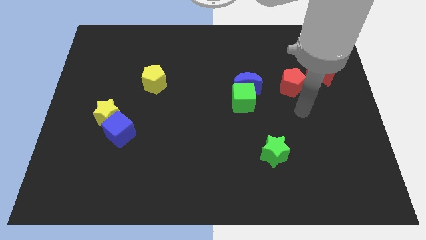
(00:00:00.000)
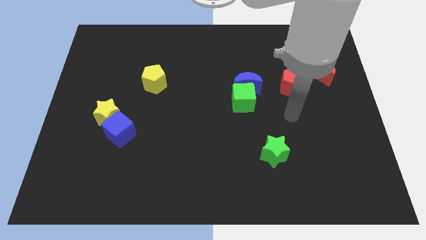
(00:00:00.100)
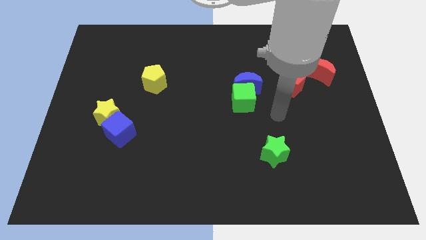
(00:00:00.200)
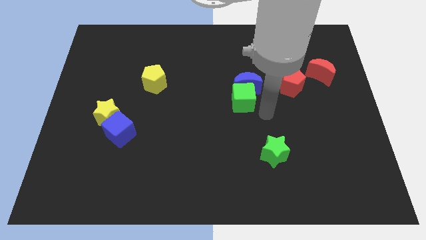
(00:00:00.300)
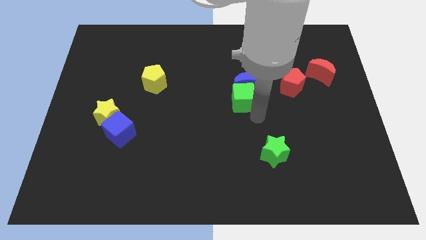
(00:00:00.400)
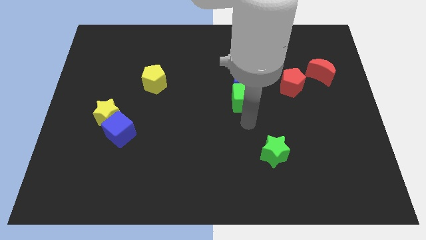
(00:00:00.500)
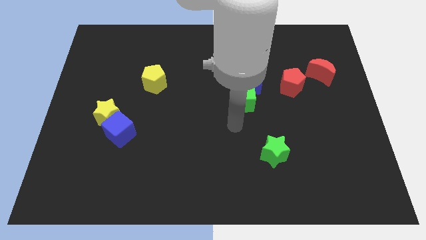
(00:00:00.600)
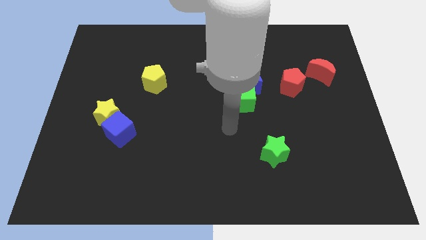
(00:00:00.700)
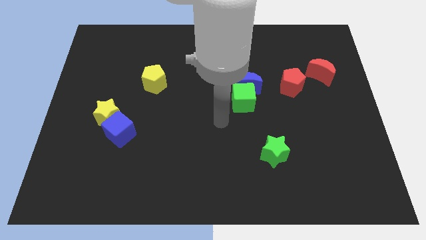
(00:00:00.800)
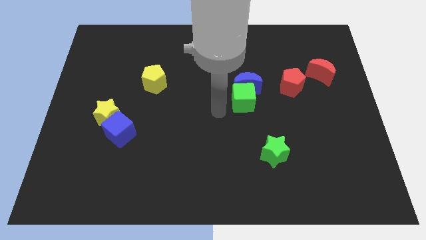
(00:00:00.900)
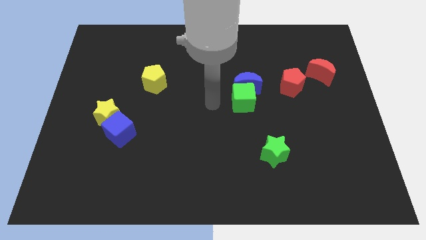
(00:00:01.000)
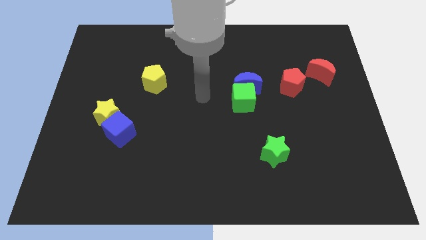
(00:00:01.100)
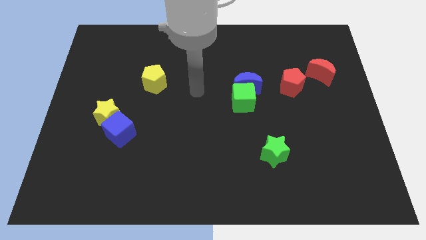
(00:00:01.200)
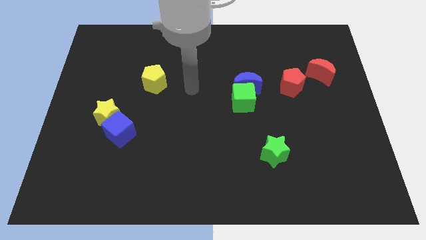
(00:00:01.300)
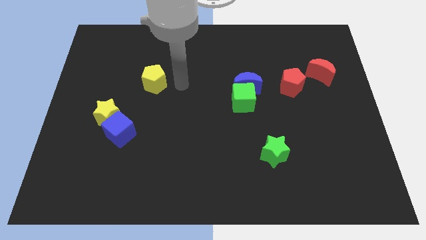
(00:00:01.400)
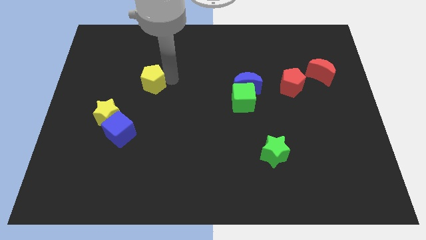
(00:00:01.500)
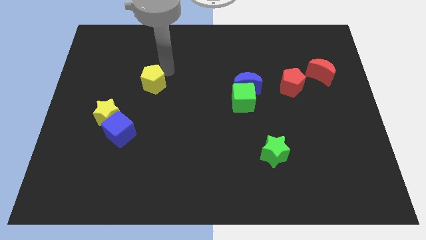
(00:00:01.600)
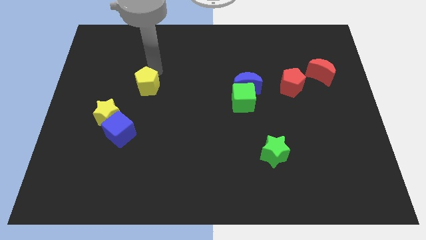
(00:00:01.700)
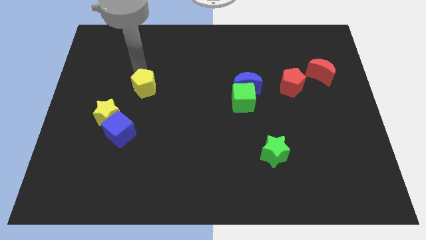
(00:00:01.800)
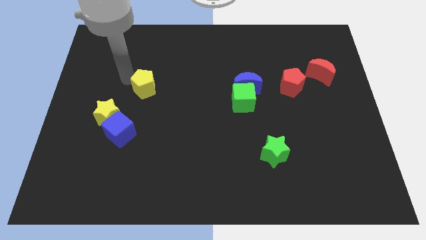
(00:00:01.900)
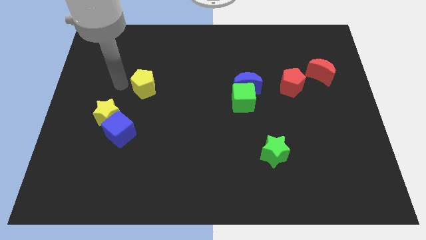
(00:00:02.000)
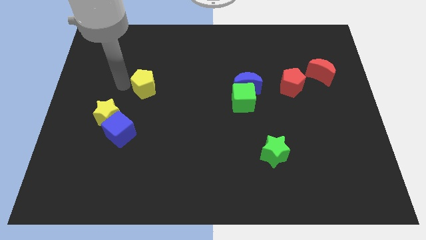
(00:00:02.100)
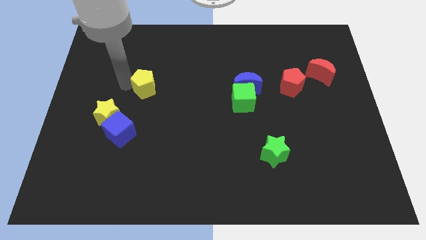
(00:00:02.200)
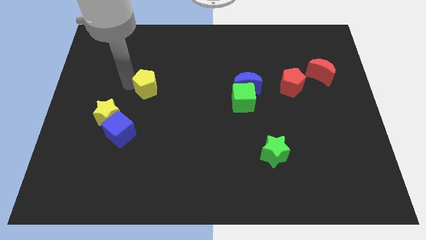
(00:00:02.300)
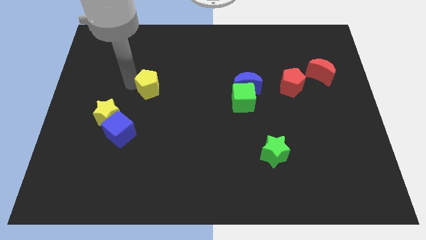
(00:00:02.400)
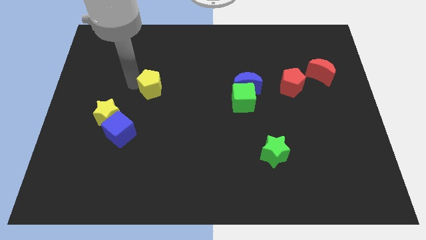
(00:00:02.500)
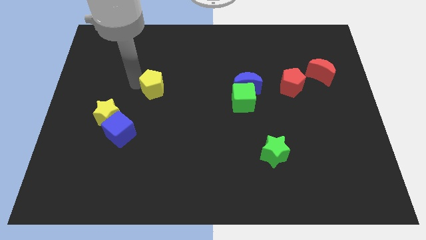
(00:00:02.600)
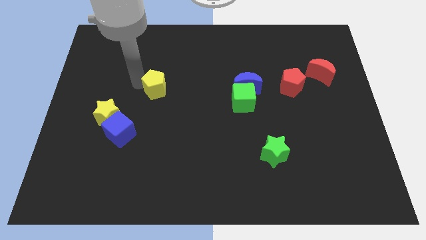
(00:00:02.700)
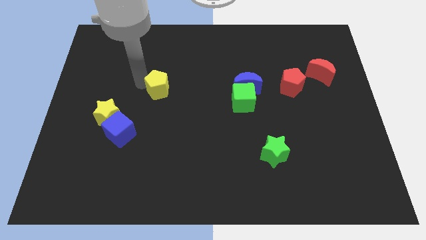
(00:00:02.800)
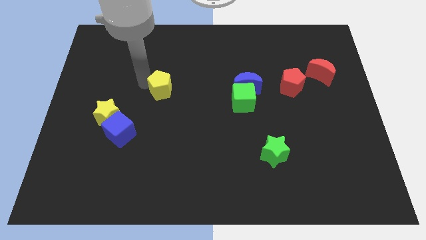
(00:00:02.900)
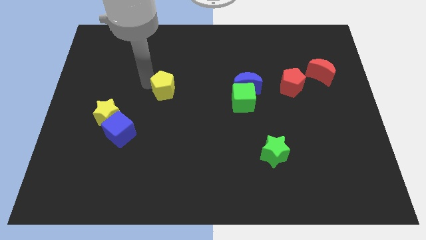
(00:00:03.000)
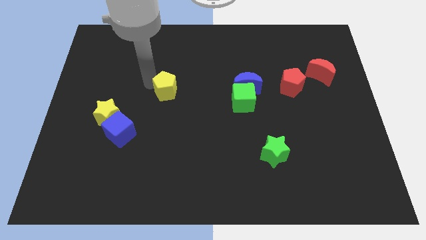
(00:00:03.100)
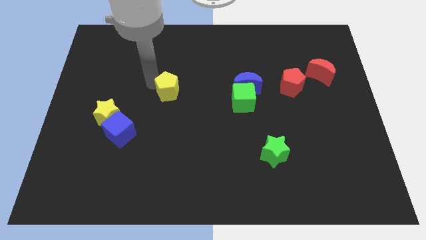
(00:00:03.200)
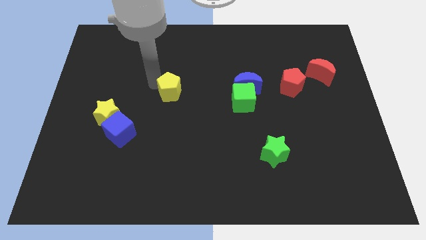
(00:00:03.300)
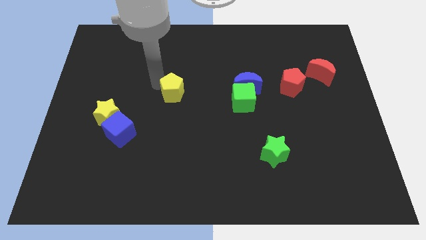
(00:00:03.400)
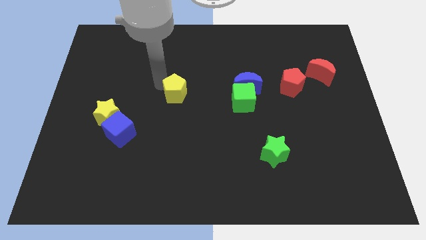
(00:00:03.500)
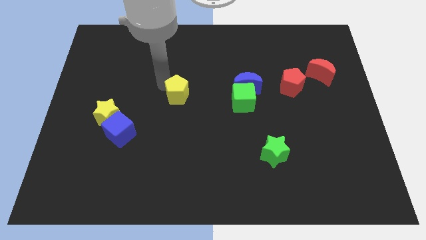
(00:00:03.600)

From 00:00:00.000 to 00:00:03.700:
slide the yellow pentagon slightly down and then to the right

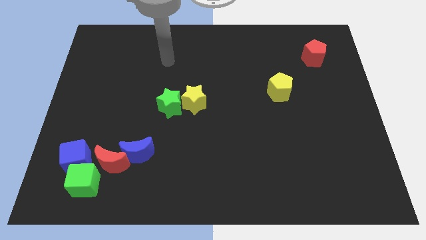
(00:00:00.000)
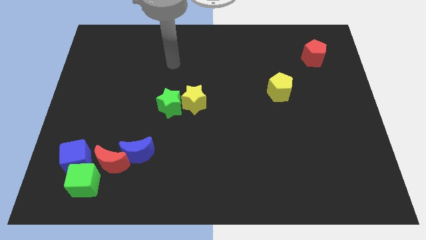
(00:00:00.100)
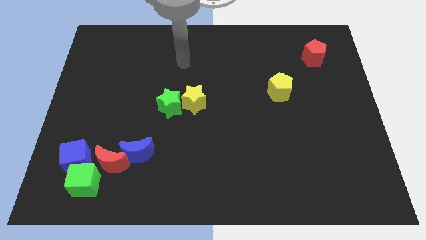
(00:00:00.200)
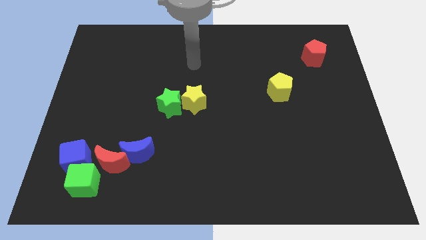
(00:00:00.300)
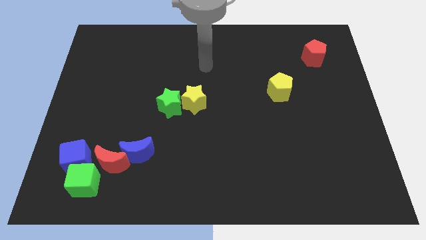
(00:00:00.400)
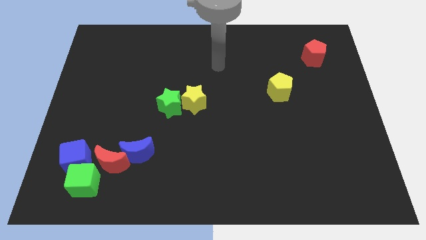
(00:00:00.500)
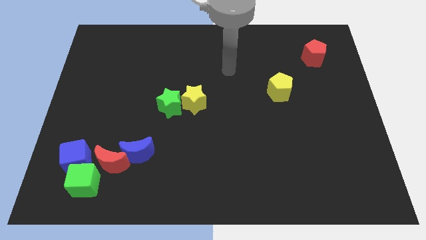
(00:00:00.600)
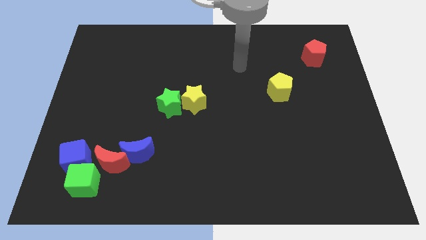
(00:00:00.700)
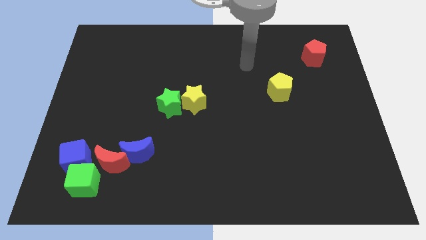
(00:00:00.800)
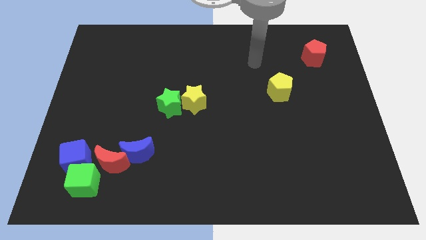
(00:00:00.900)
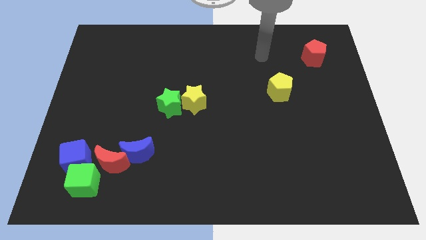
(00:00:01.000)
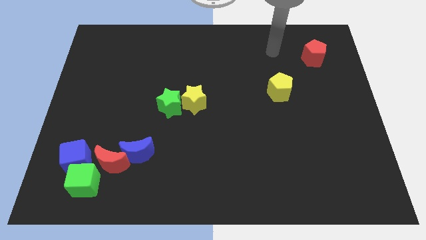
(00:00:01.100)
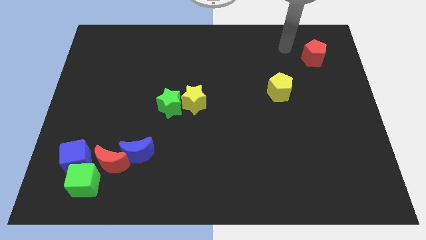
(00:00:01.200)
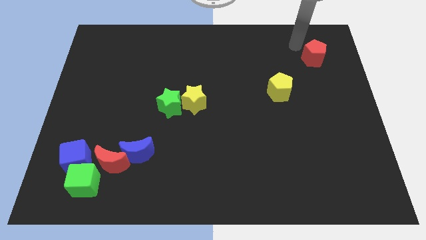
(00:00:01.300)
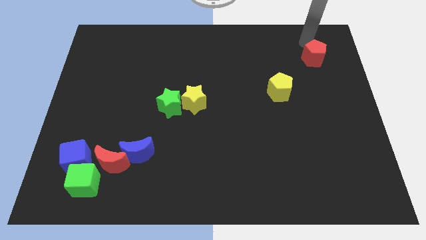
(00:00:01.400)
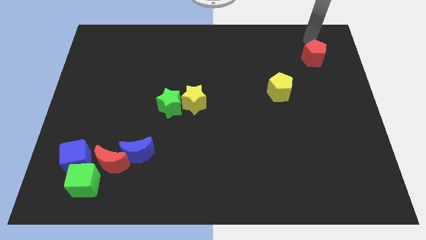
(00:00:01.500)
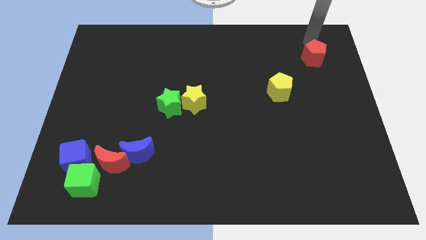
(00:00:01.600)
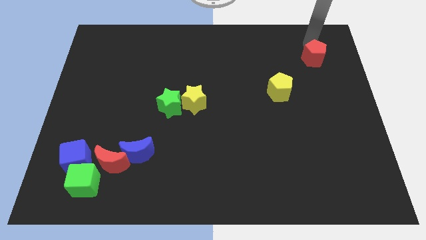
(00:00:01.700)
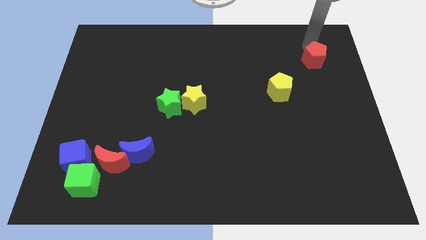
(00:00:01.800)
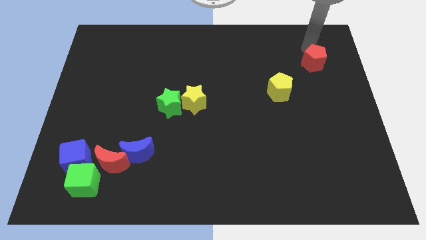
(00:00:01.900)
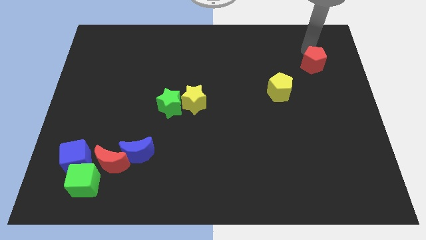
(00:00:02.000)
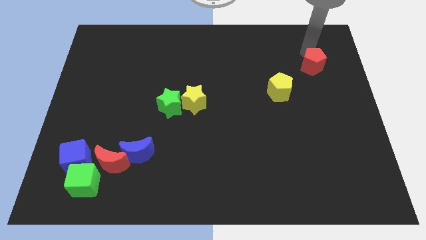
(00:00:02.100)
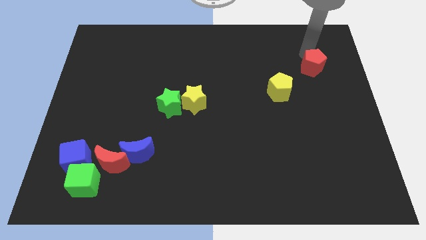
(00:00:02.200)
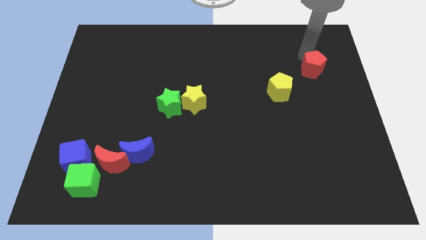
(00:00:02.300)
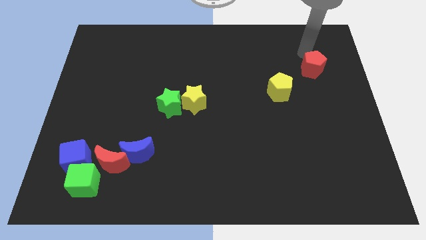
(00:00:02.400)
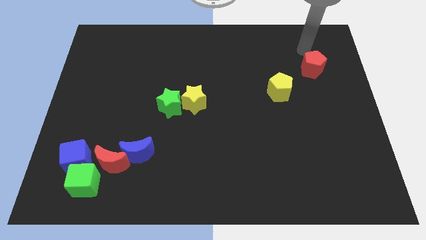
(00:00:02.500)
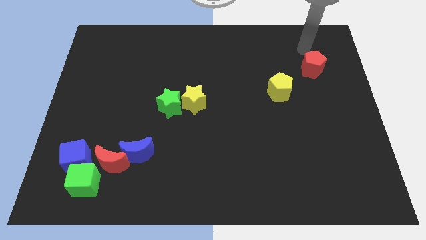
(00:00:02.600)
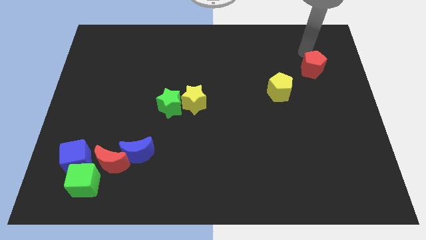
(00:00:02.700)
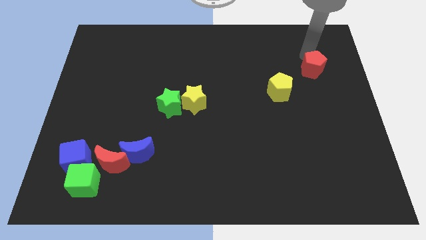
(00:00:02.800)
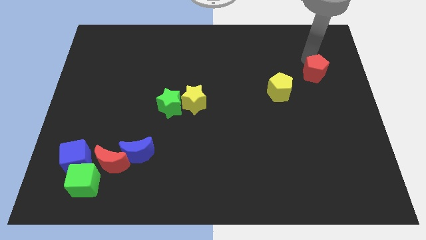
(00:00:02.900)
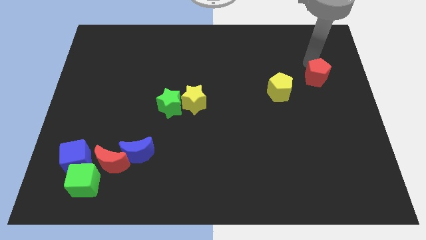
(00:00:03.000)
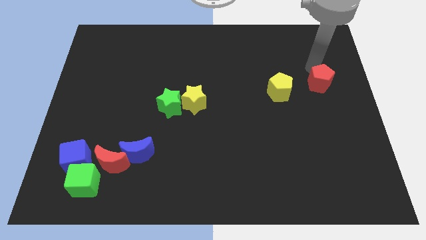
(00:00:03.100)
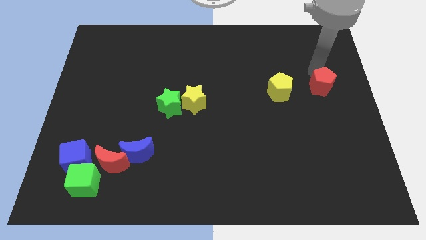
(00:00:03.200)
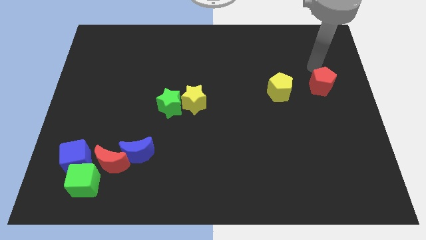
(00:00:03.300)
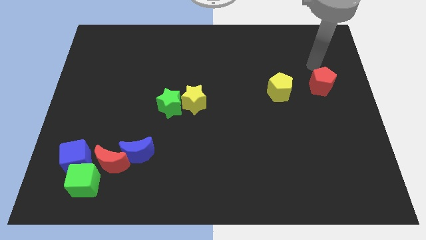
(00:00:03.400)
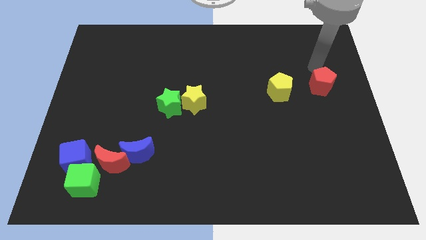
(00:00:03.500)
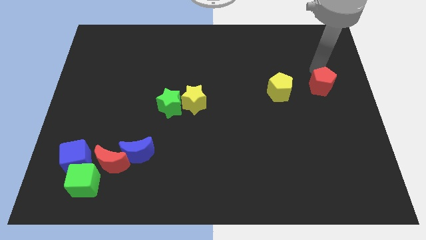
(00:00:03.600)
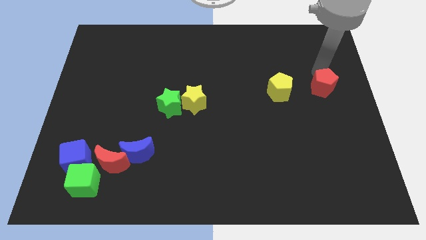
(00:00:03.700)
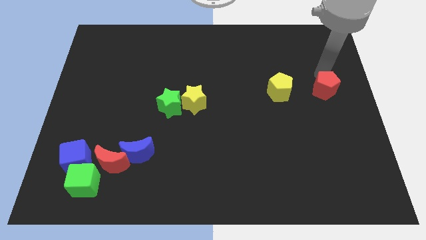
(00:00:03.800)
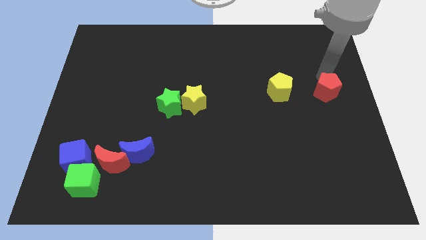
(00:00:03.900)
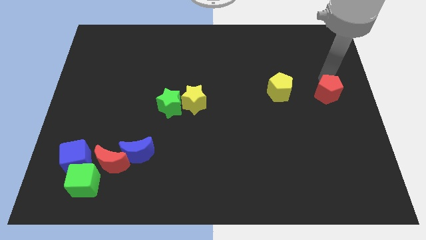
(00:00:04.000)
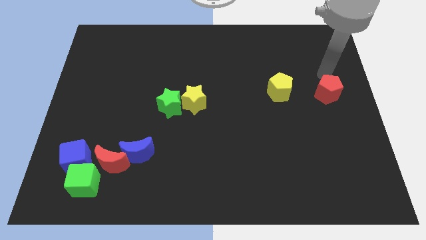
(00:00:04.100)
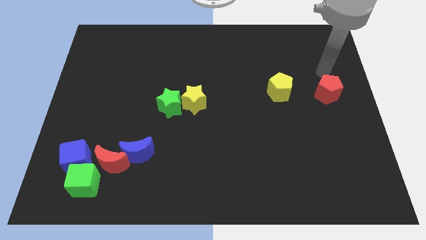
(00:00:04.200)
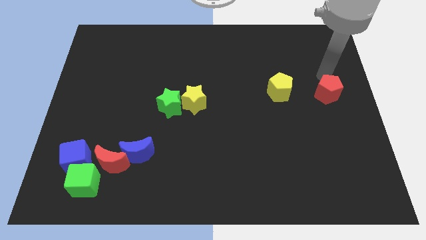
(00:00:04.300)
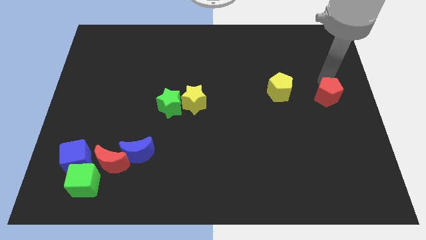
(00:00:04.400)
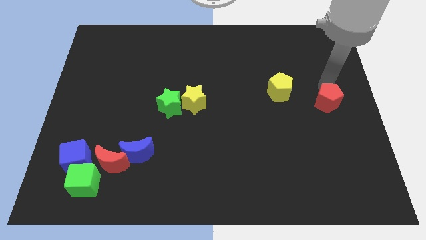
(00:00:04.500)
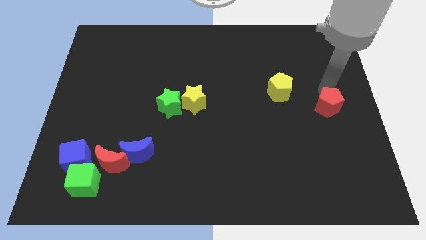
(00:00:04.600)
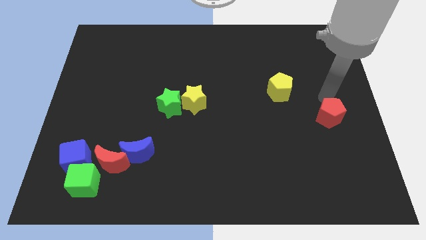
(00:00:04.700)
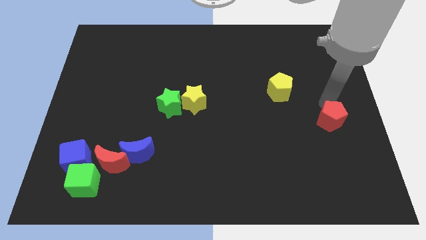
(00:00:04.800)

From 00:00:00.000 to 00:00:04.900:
slide the red pentagon downwards

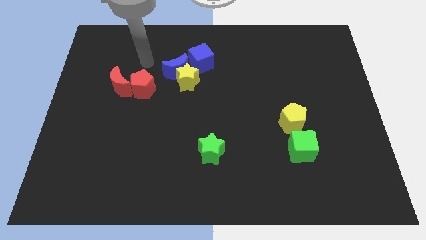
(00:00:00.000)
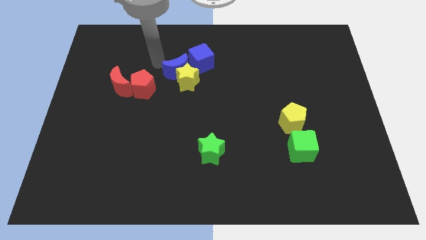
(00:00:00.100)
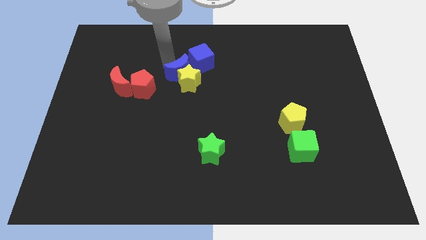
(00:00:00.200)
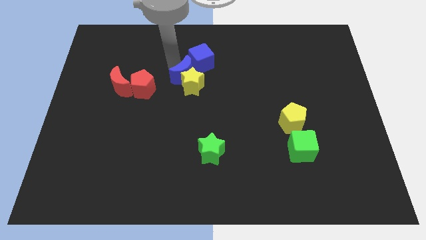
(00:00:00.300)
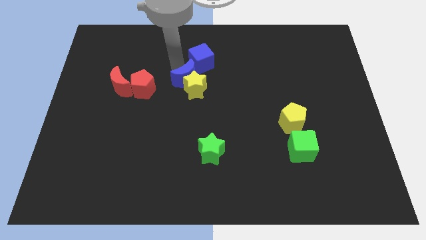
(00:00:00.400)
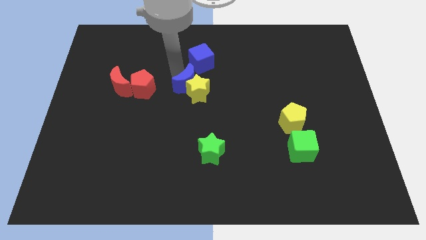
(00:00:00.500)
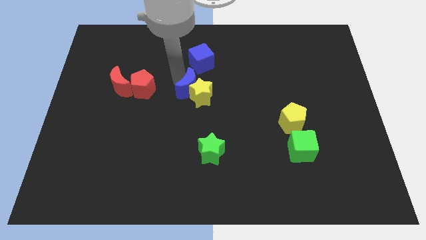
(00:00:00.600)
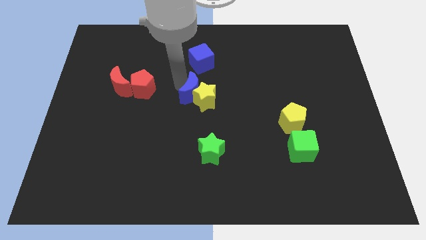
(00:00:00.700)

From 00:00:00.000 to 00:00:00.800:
push the yellow star slightly diagonally downwards and right
